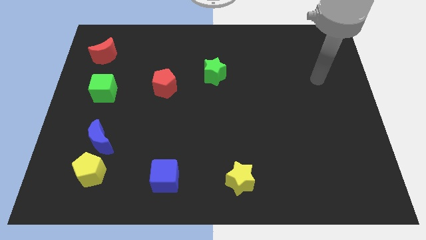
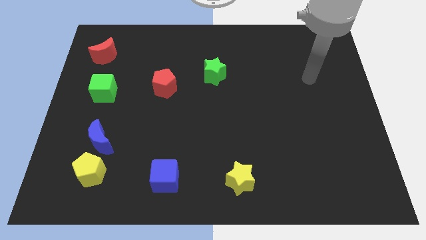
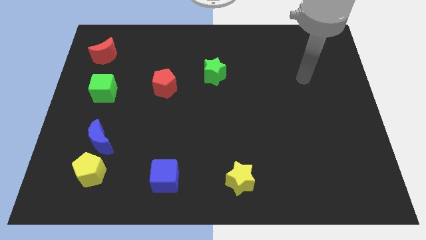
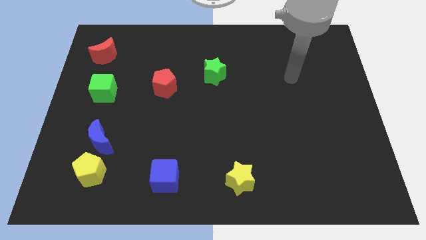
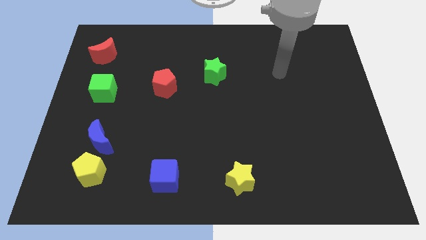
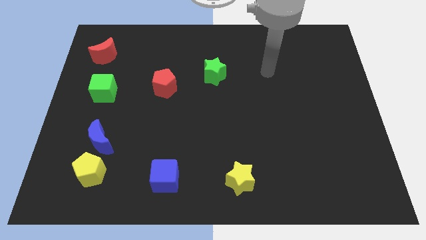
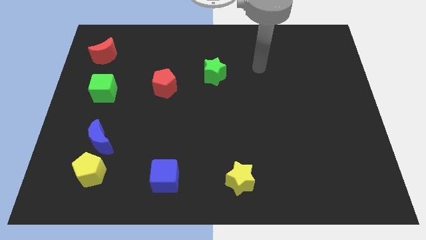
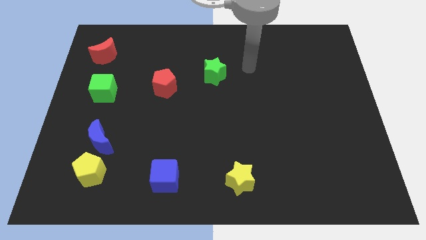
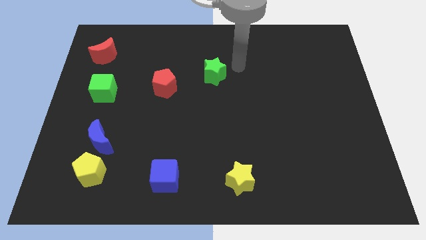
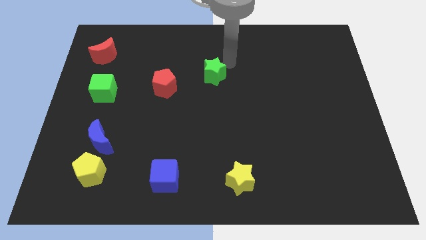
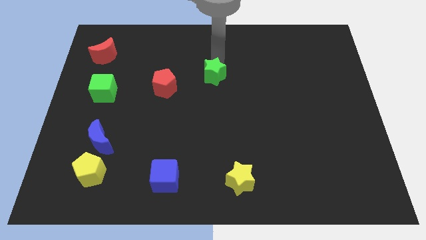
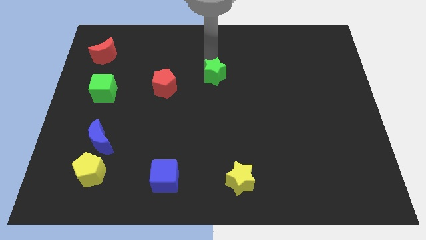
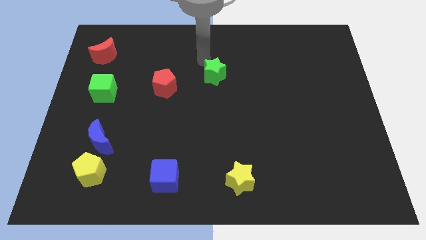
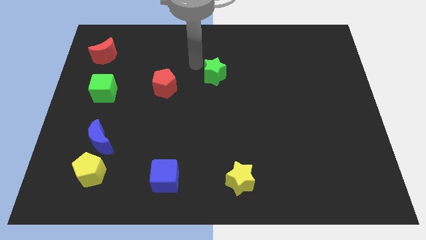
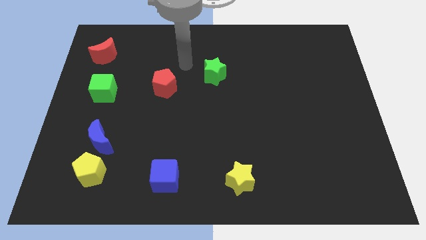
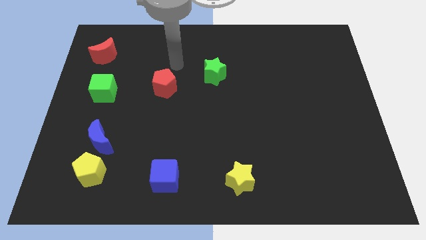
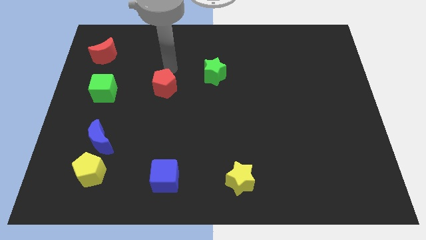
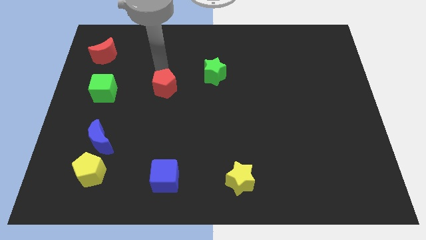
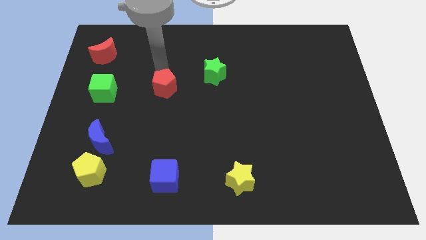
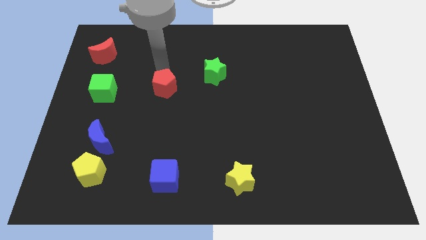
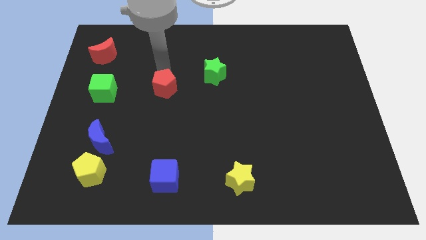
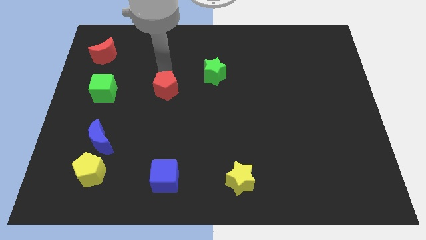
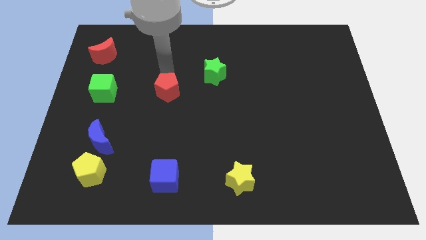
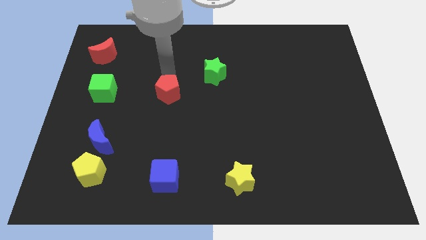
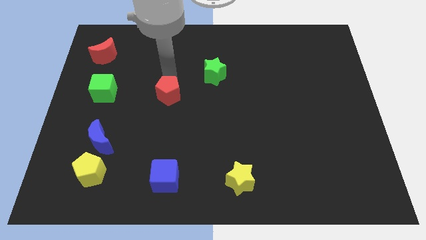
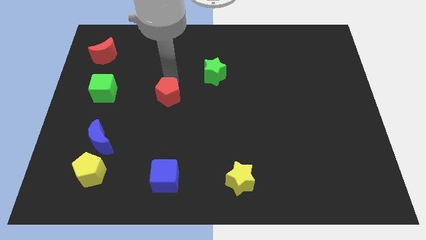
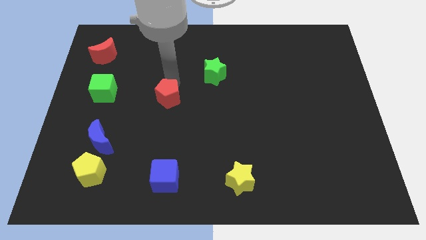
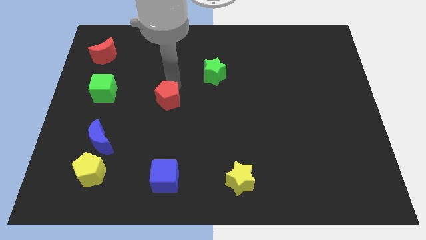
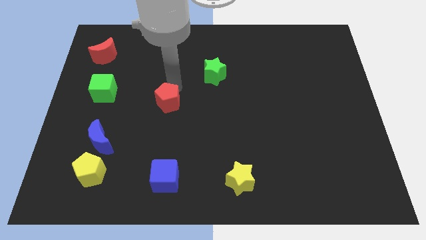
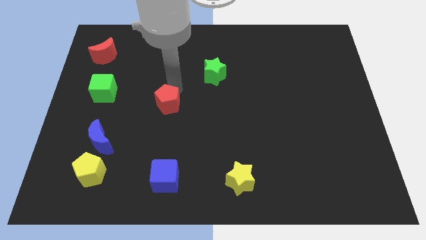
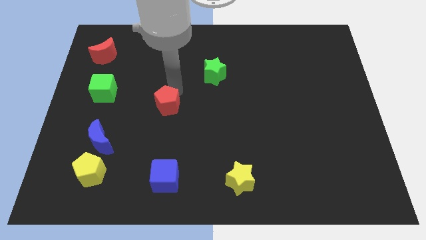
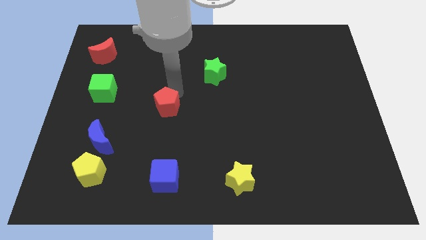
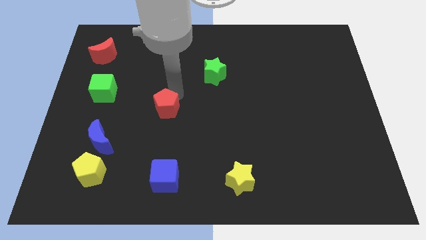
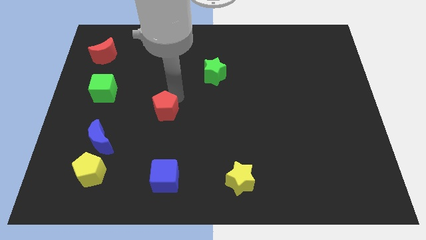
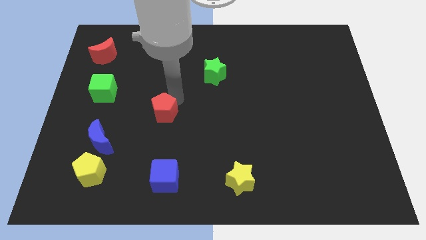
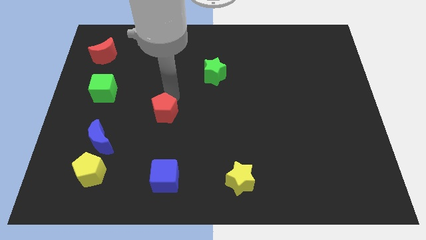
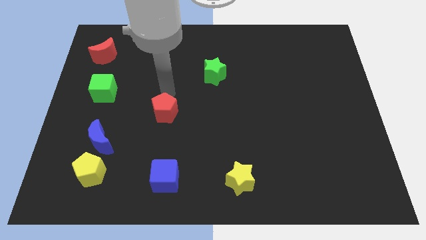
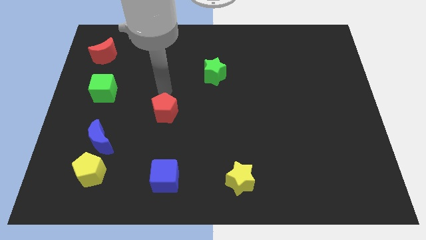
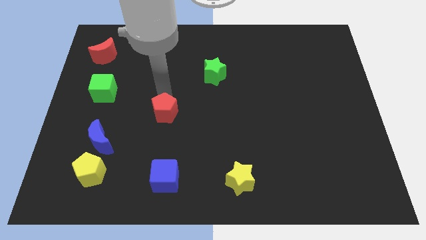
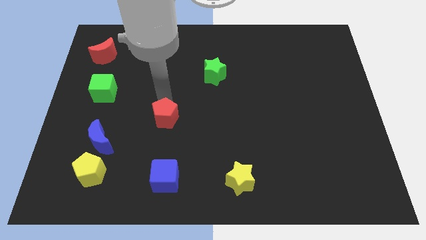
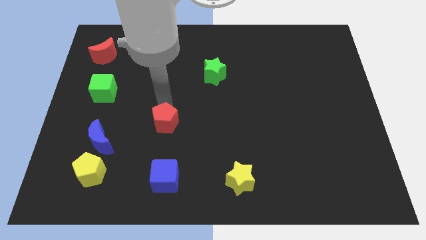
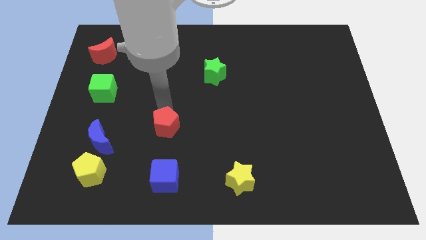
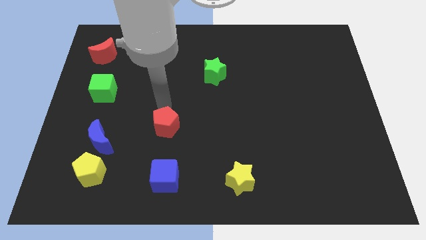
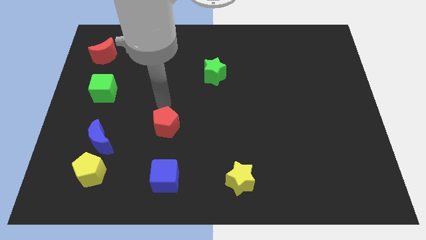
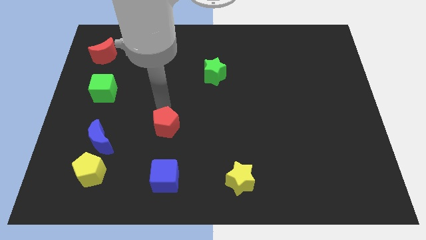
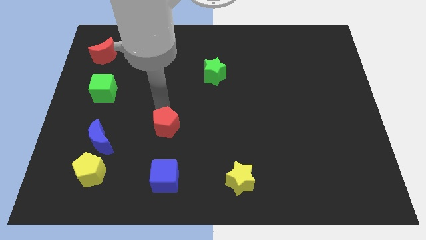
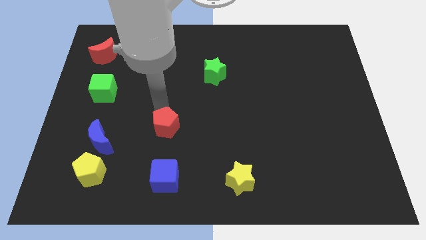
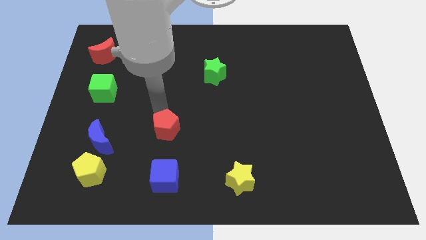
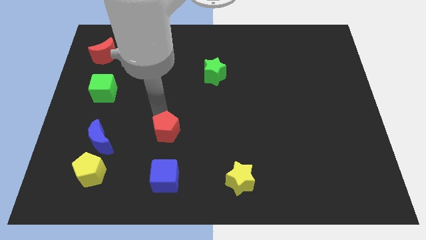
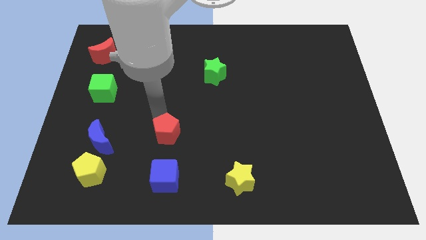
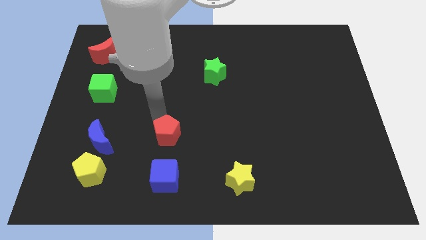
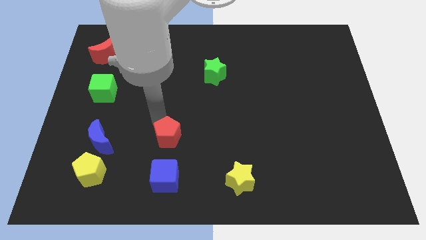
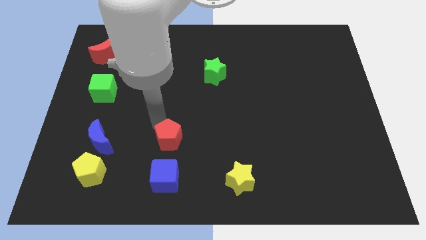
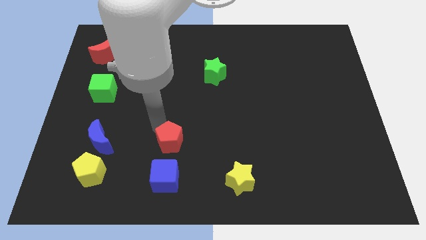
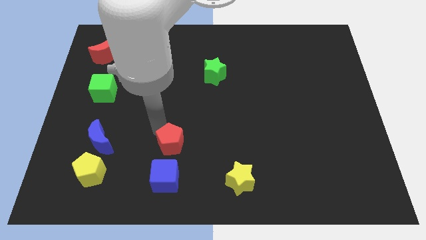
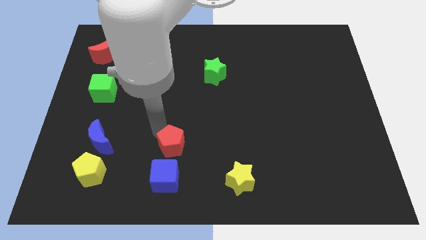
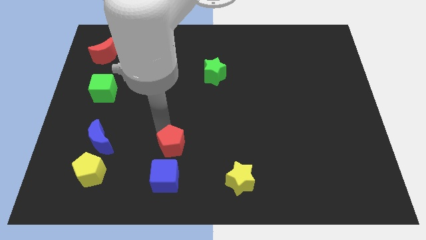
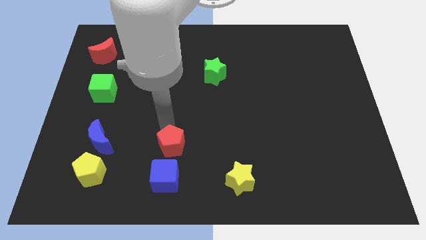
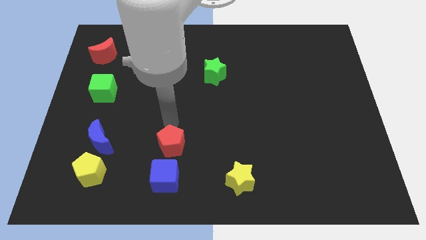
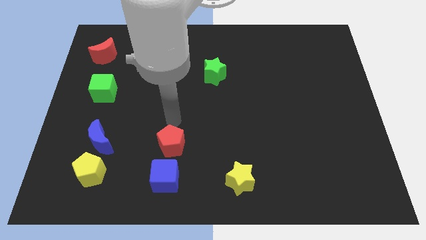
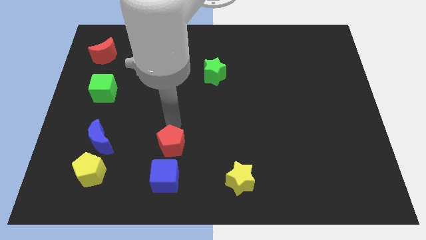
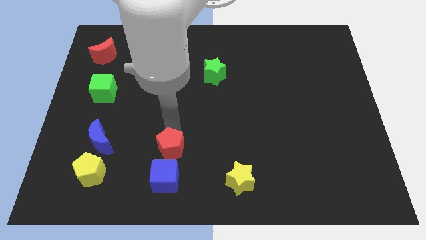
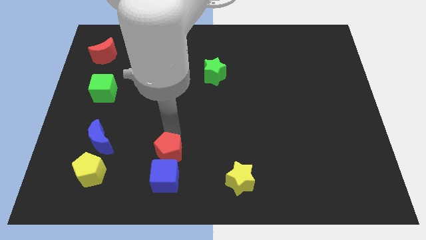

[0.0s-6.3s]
push the red pentagon next to the blue cube

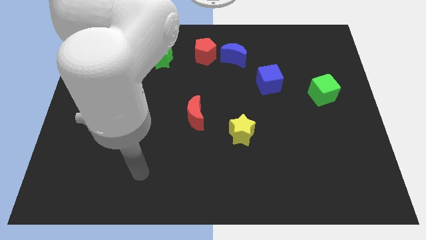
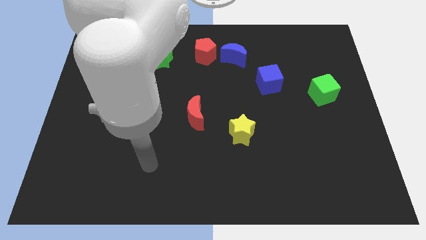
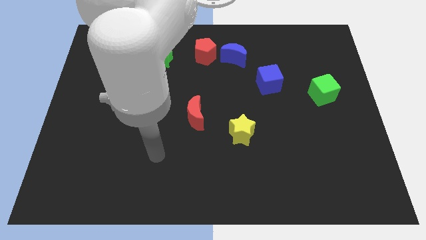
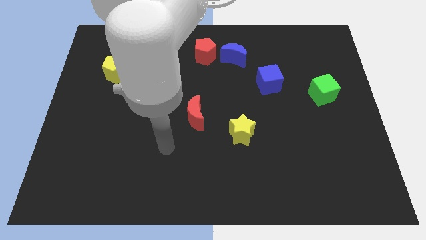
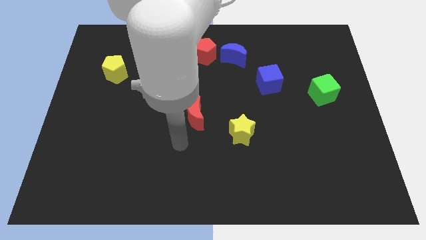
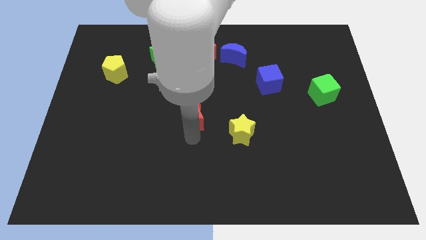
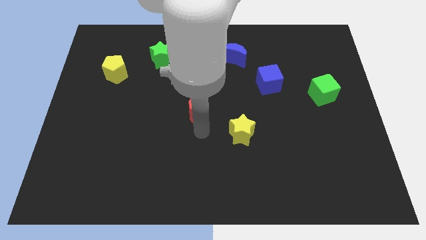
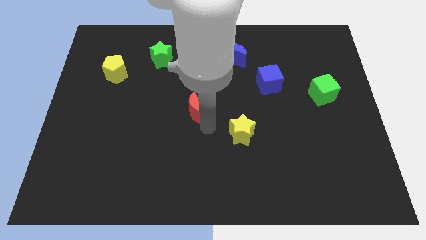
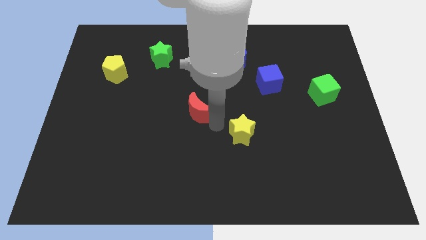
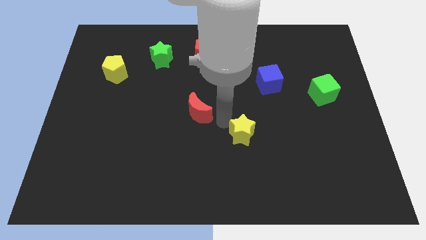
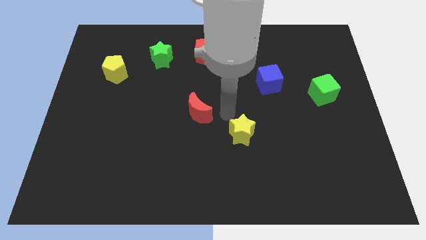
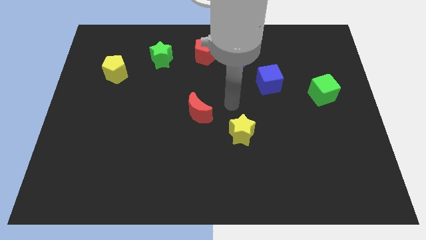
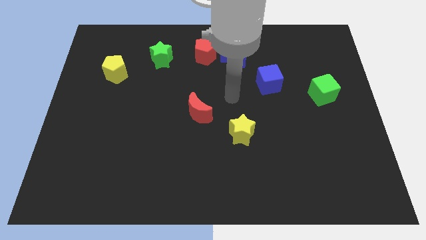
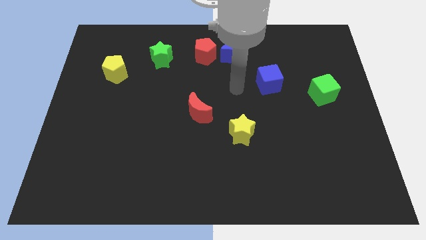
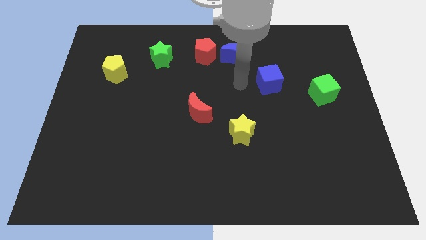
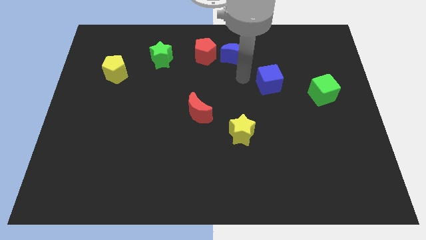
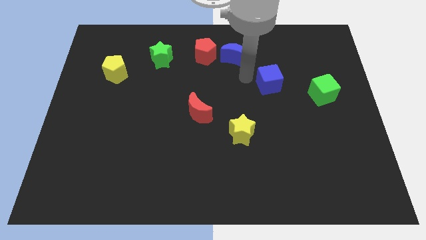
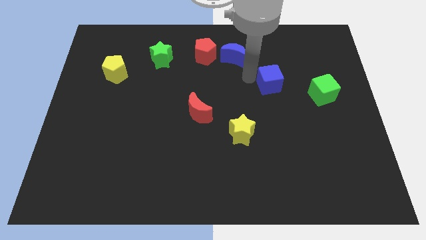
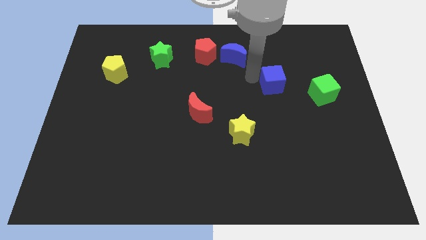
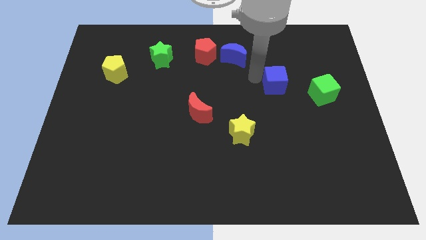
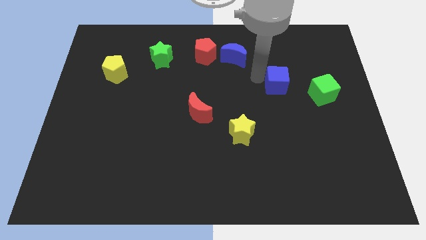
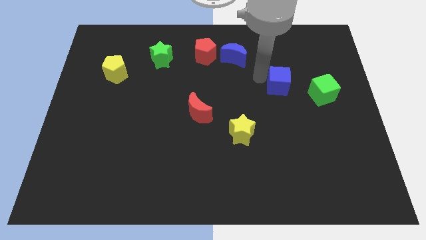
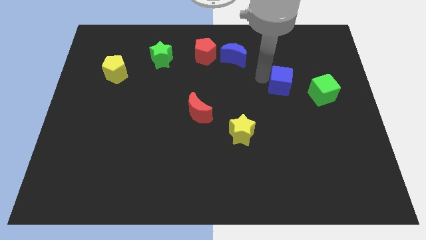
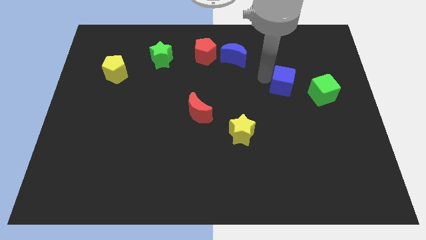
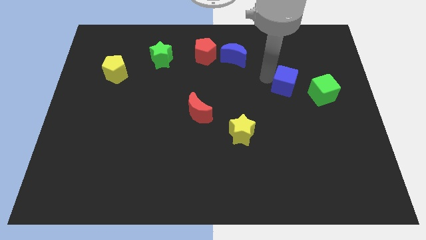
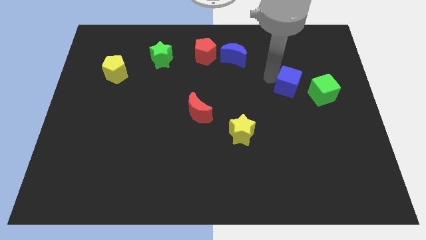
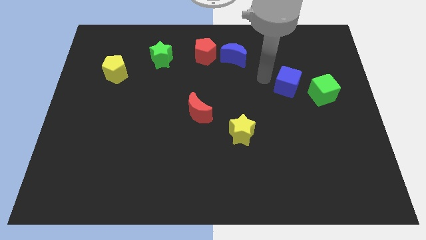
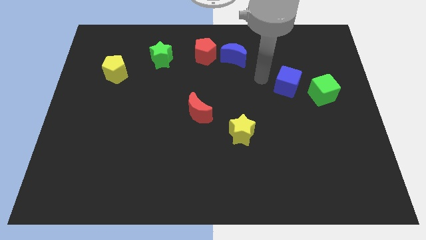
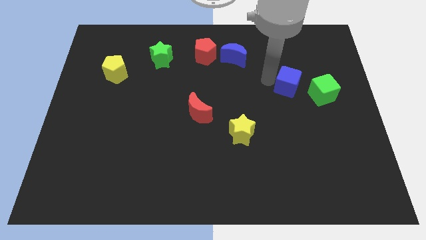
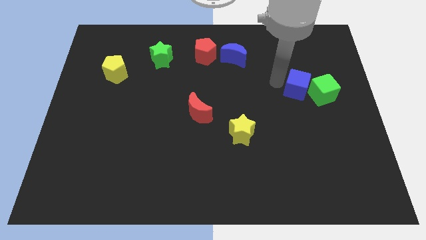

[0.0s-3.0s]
slide the blue cube to the green cube
